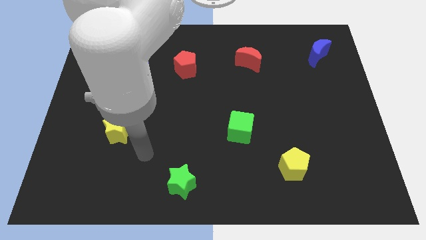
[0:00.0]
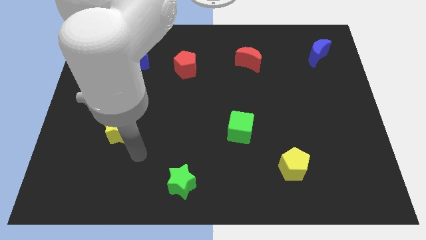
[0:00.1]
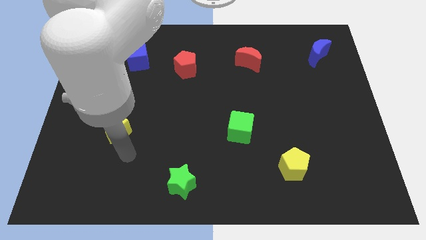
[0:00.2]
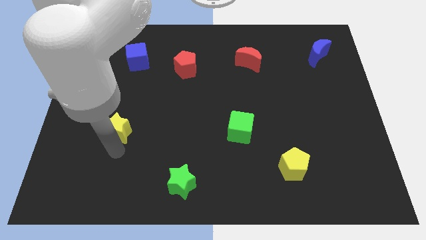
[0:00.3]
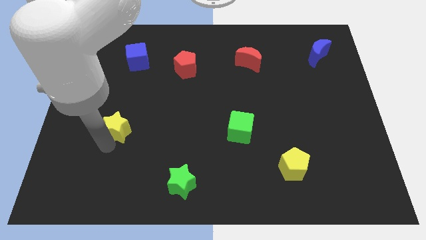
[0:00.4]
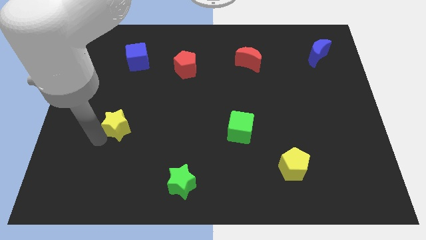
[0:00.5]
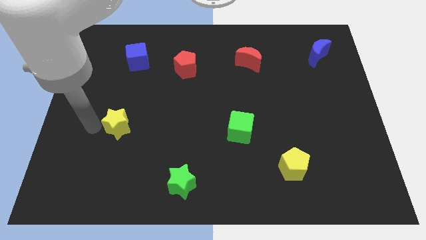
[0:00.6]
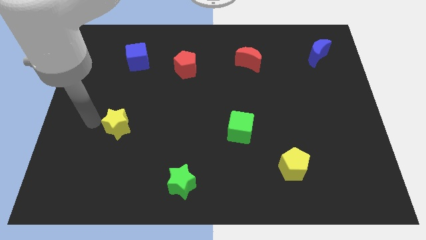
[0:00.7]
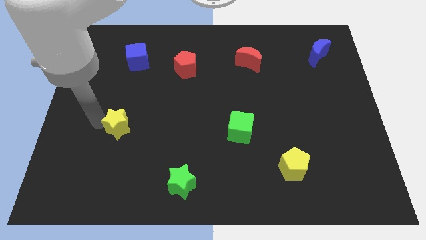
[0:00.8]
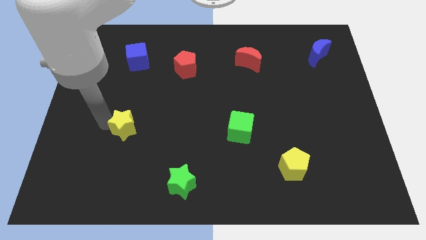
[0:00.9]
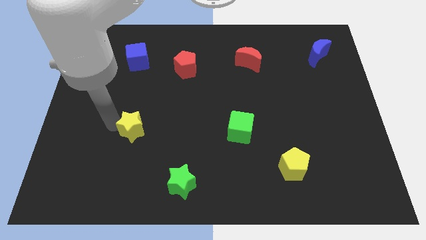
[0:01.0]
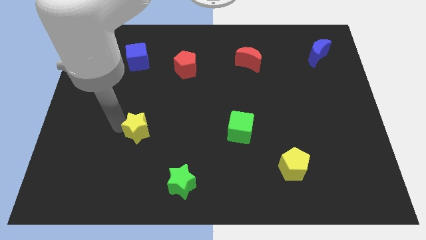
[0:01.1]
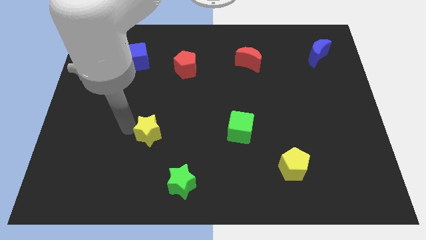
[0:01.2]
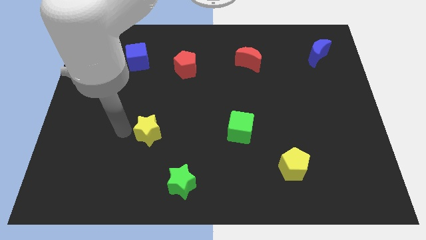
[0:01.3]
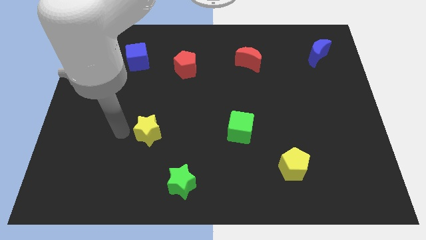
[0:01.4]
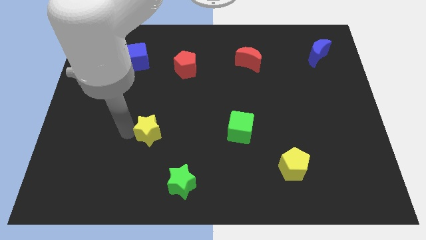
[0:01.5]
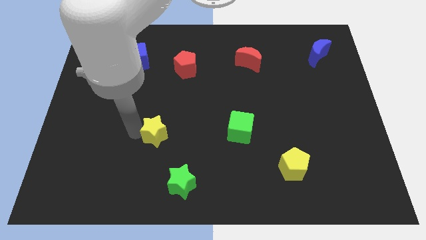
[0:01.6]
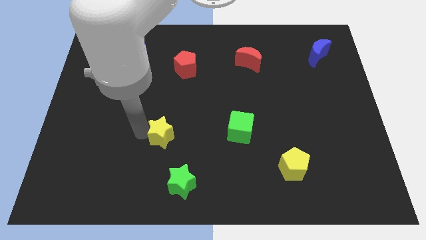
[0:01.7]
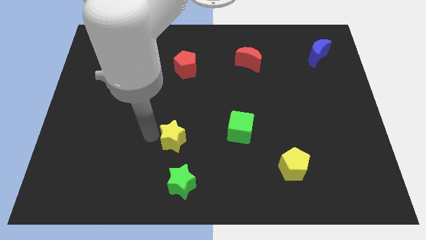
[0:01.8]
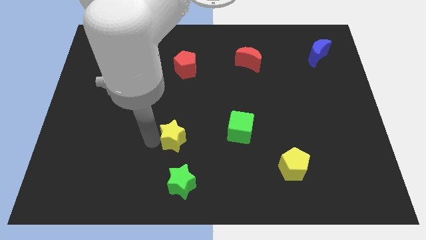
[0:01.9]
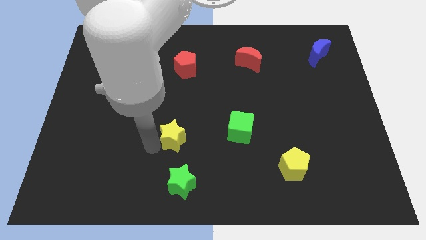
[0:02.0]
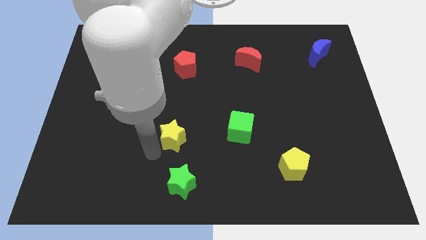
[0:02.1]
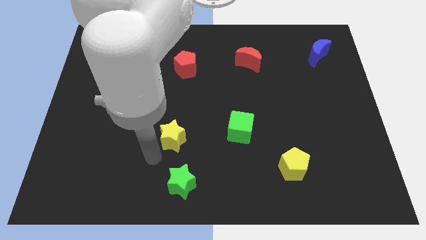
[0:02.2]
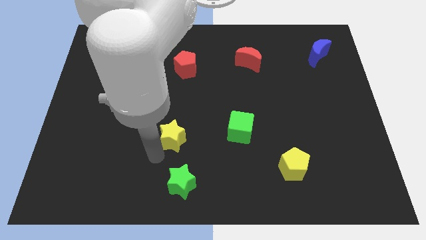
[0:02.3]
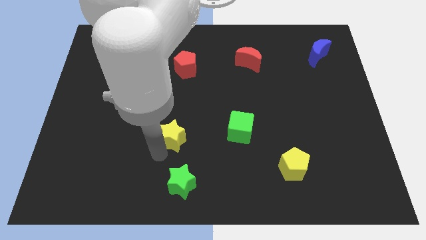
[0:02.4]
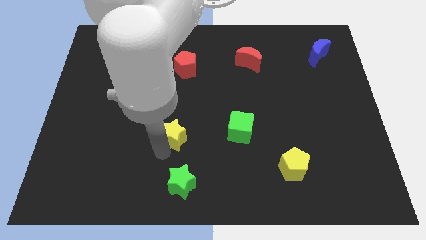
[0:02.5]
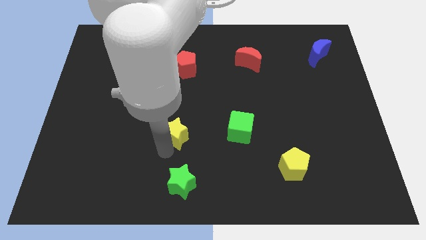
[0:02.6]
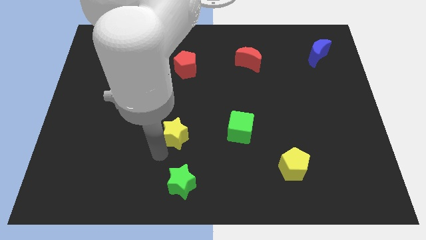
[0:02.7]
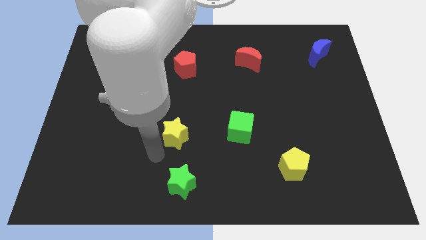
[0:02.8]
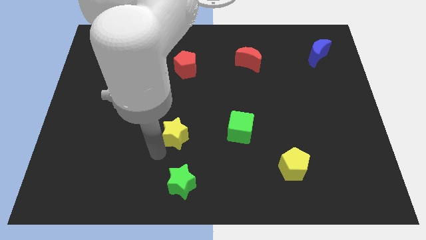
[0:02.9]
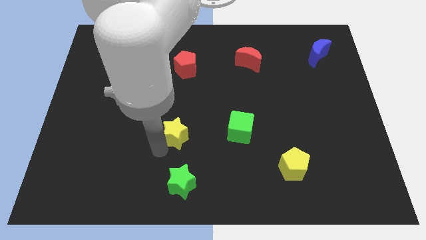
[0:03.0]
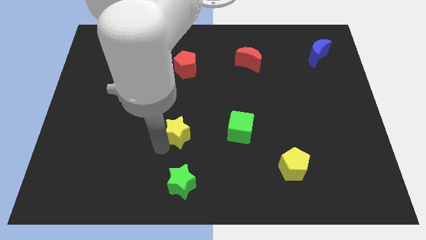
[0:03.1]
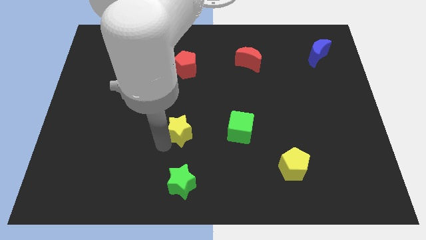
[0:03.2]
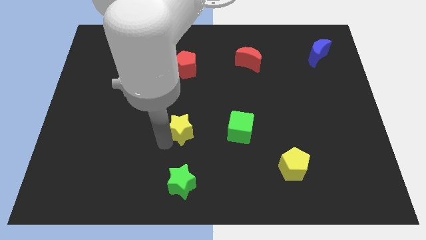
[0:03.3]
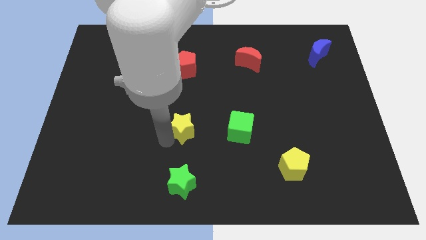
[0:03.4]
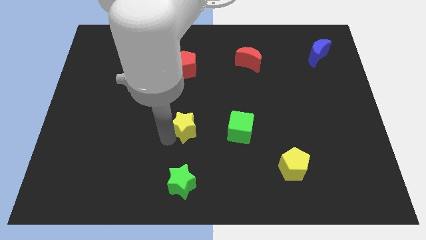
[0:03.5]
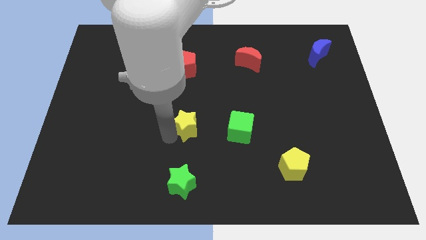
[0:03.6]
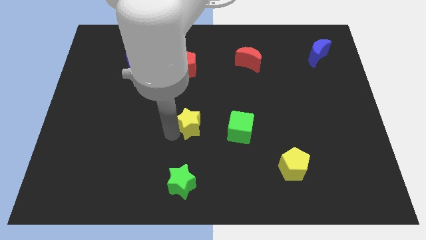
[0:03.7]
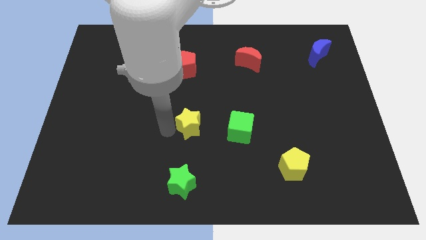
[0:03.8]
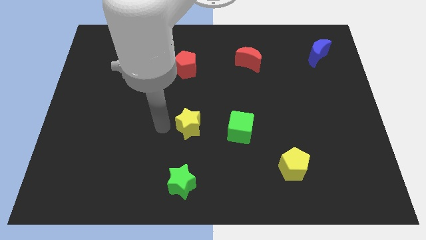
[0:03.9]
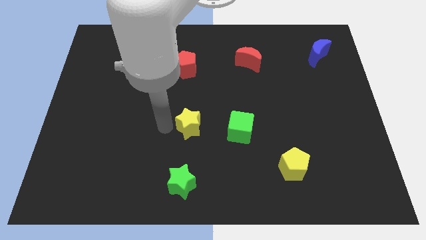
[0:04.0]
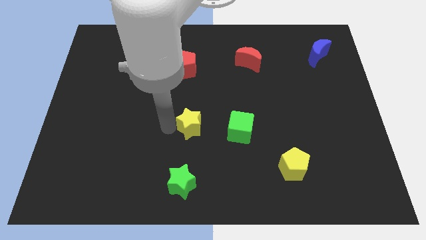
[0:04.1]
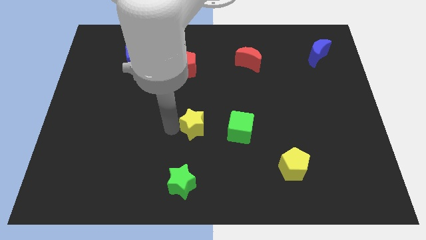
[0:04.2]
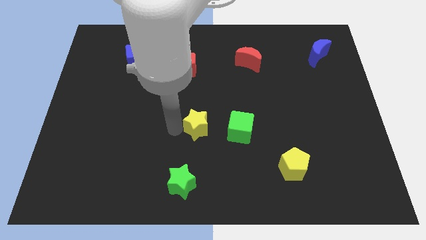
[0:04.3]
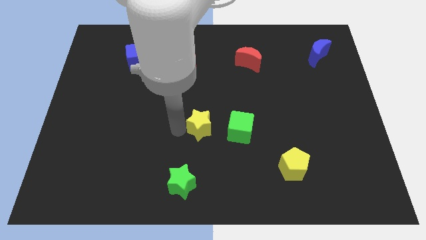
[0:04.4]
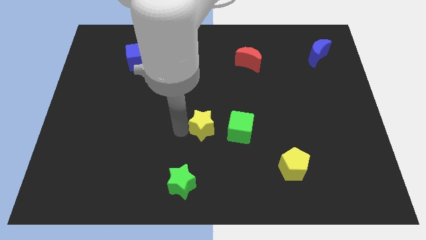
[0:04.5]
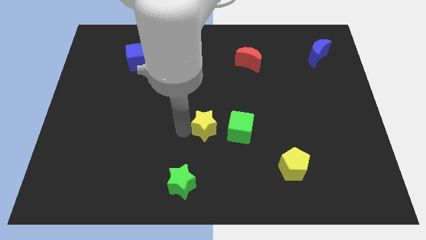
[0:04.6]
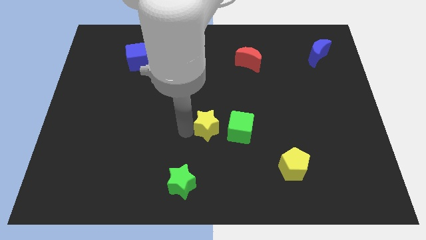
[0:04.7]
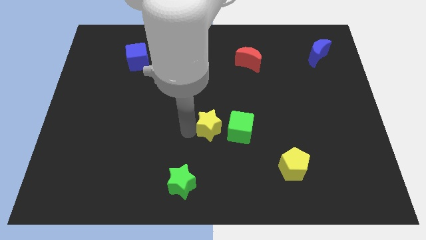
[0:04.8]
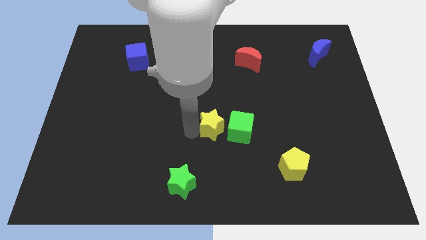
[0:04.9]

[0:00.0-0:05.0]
put the yellow star to the green cube

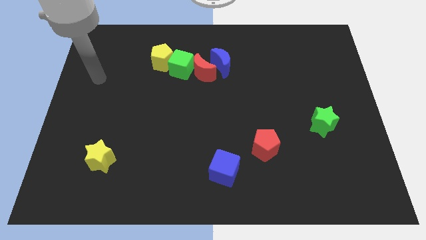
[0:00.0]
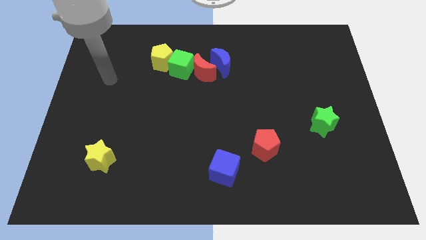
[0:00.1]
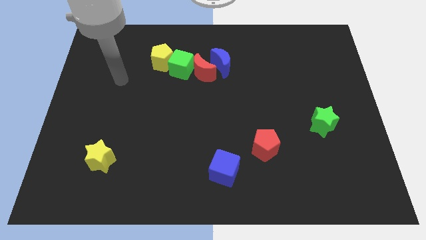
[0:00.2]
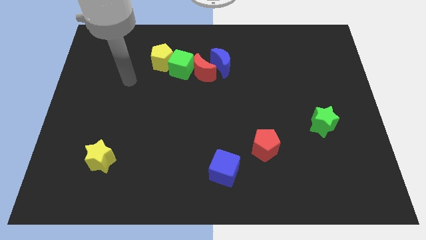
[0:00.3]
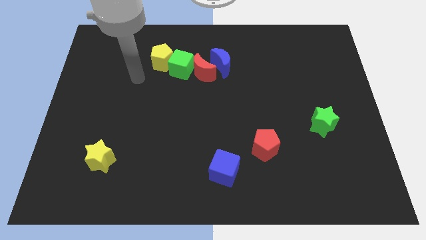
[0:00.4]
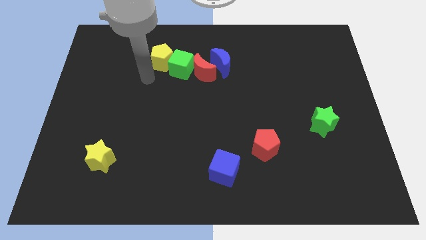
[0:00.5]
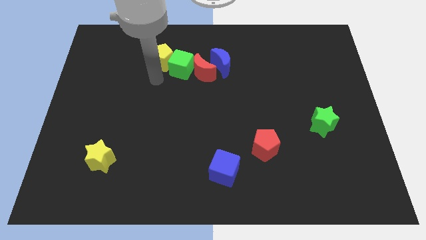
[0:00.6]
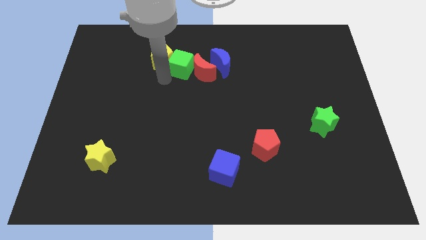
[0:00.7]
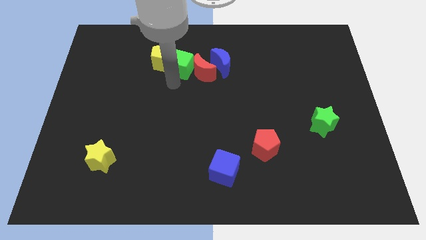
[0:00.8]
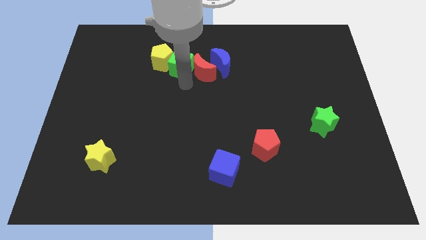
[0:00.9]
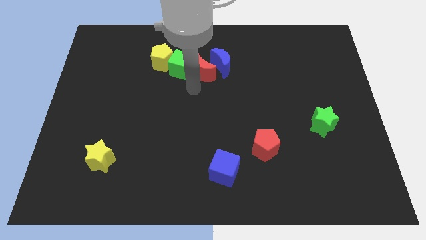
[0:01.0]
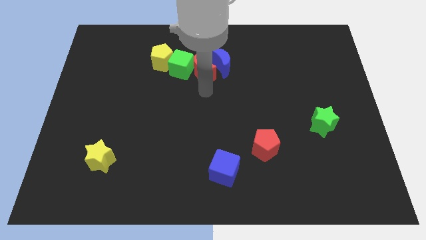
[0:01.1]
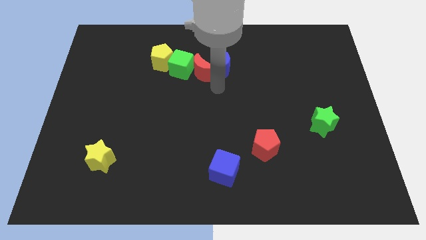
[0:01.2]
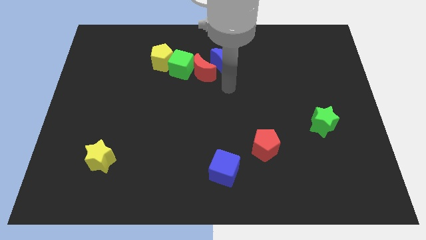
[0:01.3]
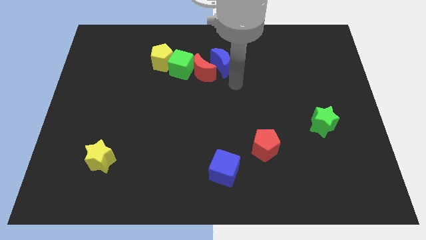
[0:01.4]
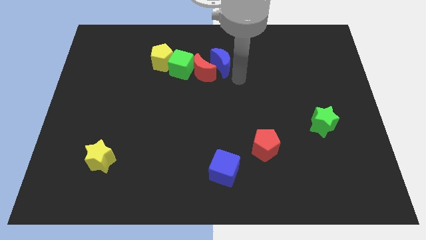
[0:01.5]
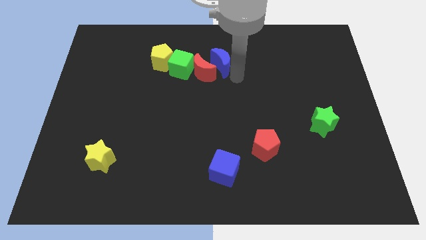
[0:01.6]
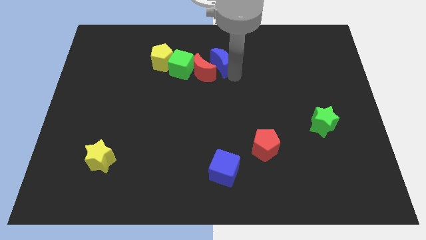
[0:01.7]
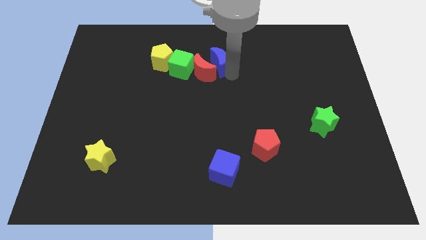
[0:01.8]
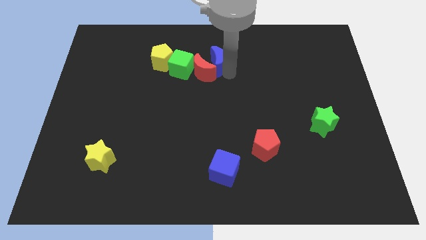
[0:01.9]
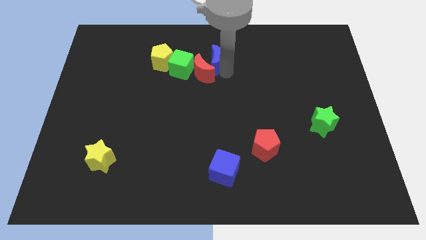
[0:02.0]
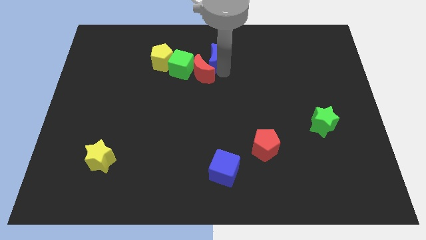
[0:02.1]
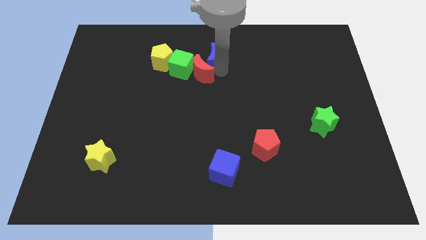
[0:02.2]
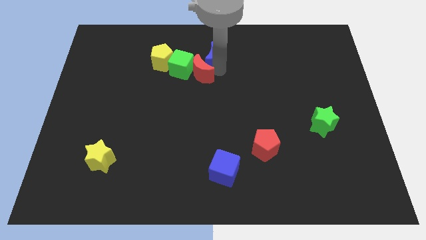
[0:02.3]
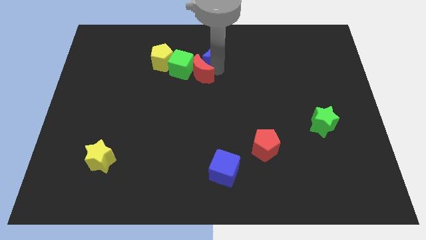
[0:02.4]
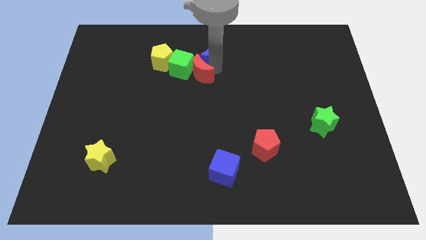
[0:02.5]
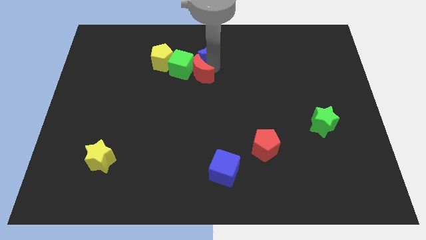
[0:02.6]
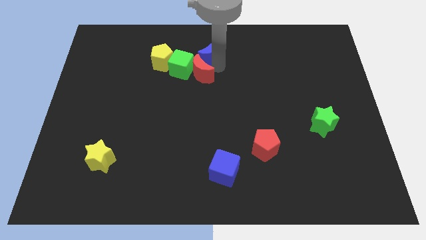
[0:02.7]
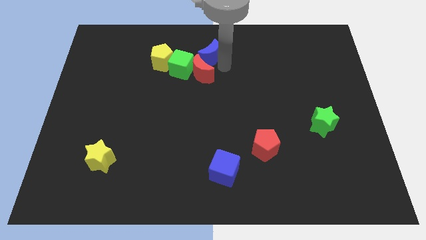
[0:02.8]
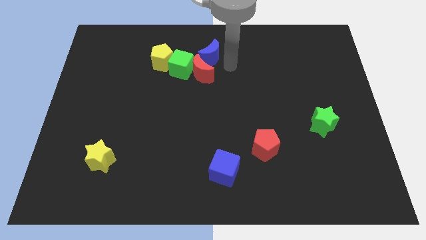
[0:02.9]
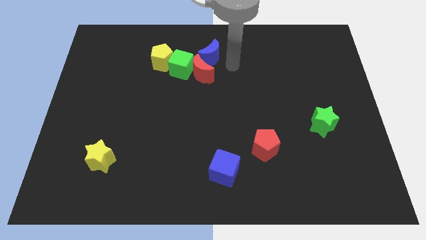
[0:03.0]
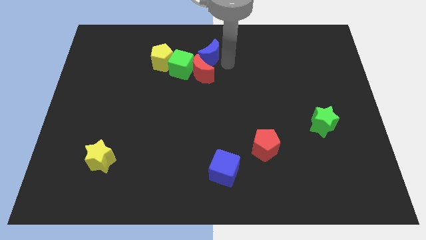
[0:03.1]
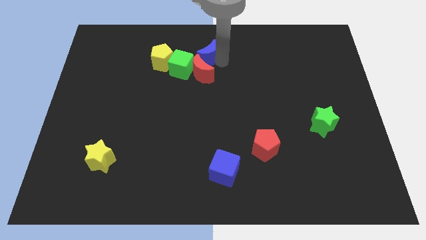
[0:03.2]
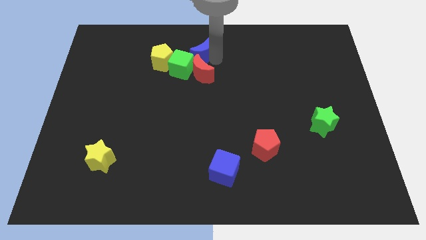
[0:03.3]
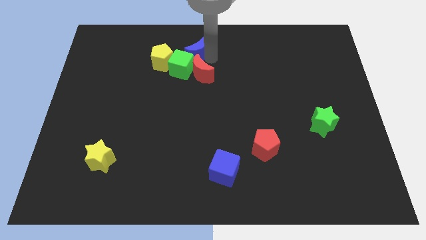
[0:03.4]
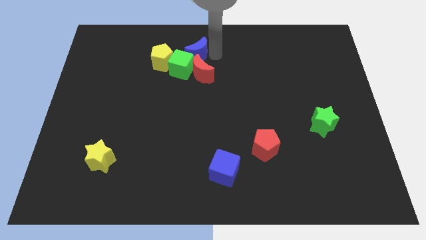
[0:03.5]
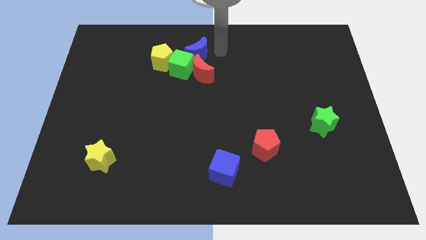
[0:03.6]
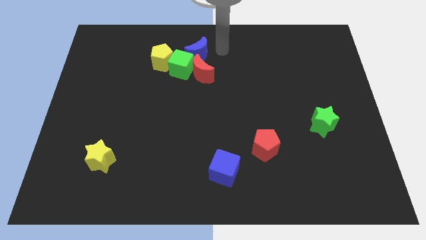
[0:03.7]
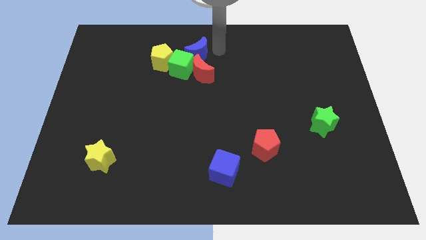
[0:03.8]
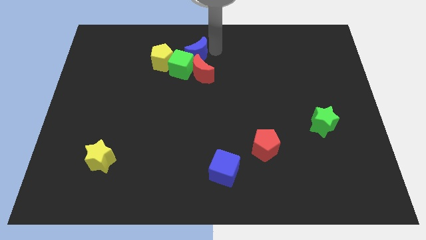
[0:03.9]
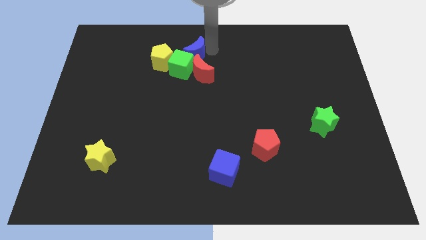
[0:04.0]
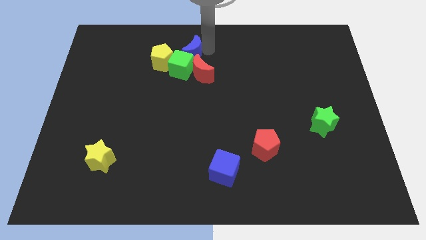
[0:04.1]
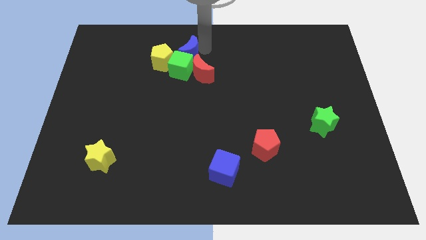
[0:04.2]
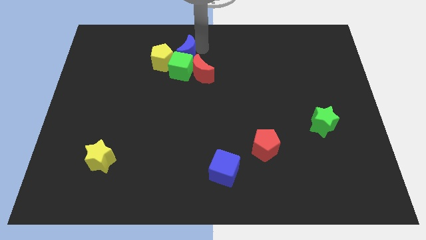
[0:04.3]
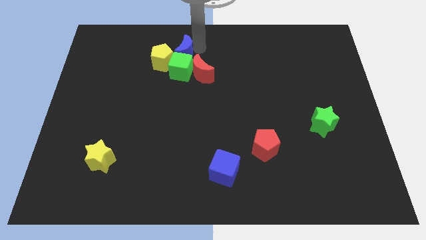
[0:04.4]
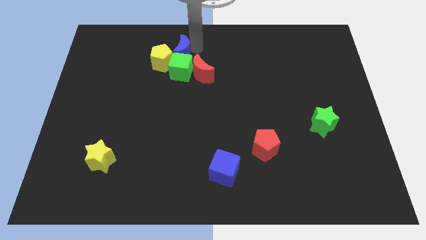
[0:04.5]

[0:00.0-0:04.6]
slide the blue moon close to the yellow pentagon
